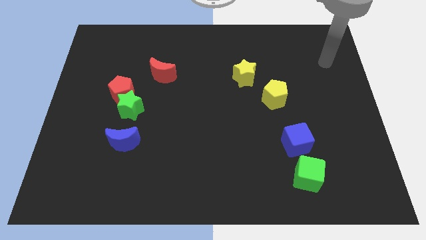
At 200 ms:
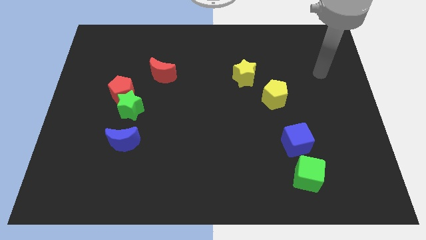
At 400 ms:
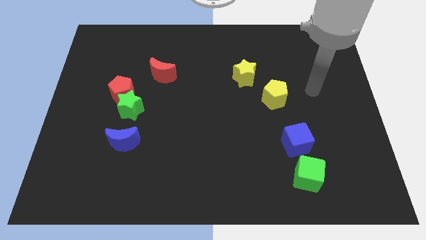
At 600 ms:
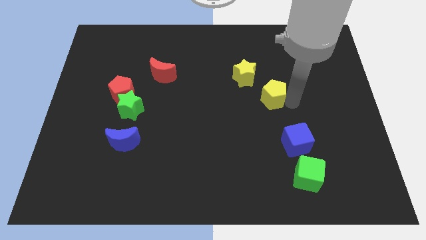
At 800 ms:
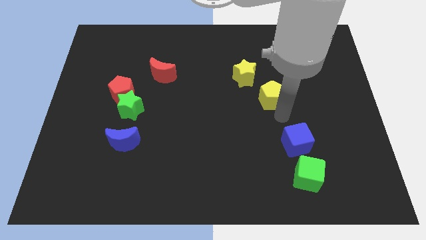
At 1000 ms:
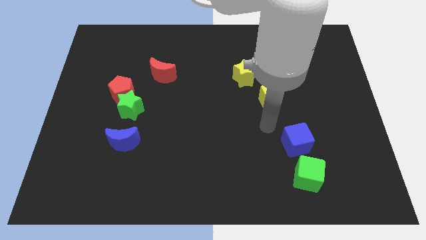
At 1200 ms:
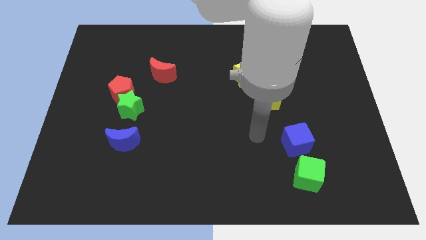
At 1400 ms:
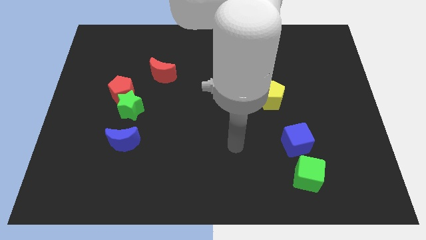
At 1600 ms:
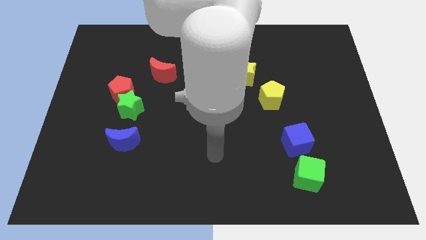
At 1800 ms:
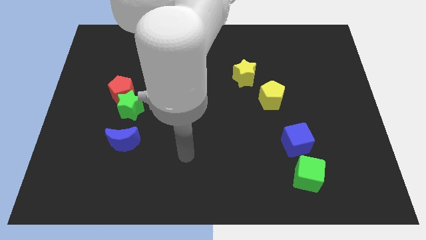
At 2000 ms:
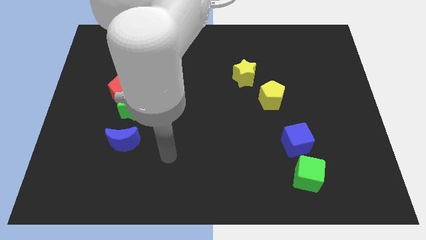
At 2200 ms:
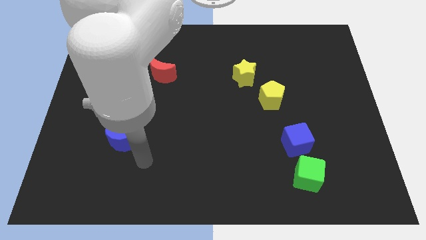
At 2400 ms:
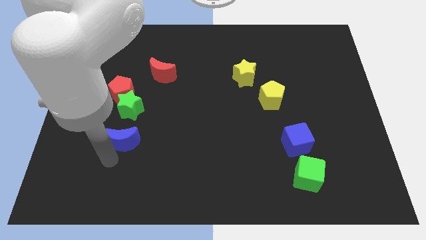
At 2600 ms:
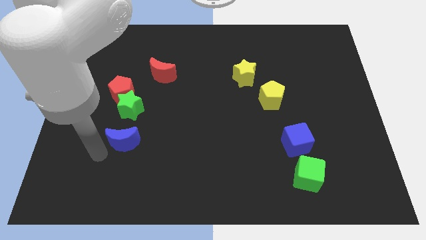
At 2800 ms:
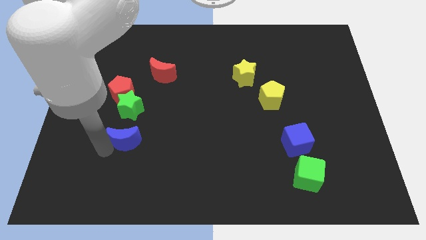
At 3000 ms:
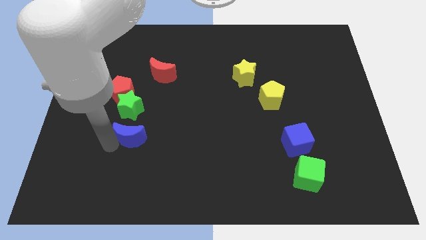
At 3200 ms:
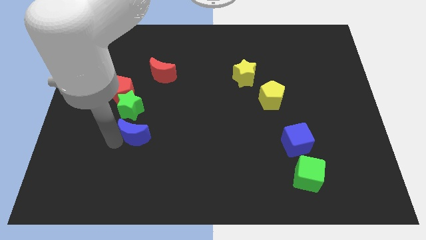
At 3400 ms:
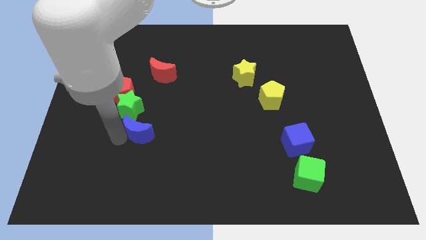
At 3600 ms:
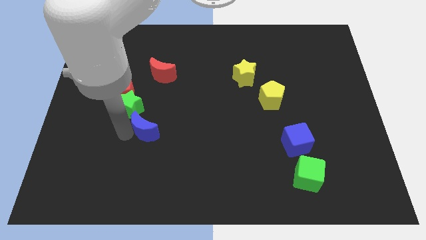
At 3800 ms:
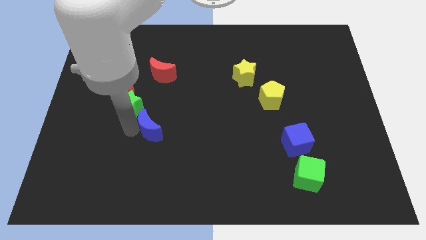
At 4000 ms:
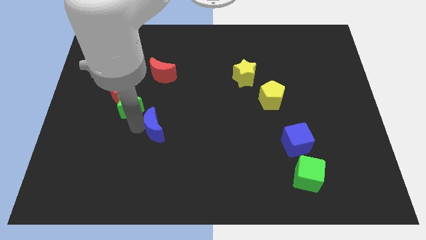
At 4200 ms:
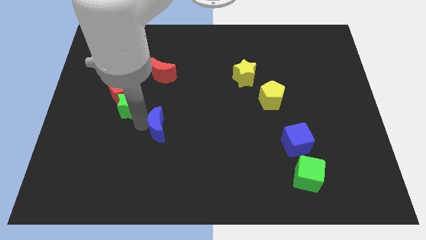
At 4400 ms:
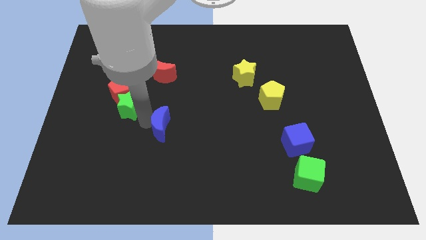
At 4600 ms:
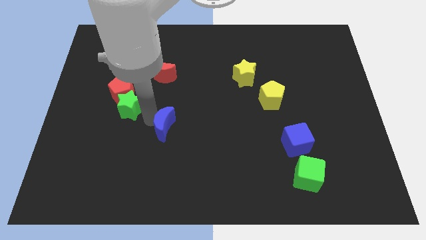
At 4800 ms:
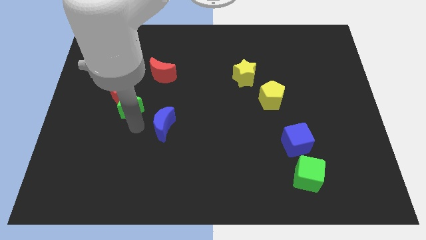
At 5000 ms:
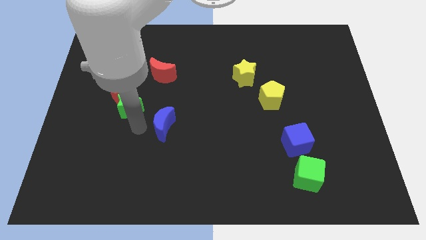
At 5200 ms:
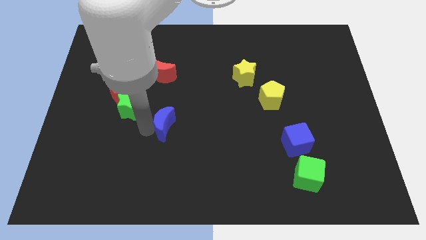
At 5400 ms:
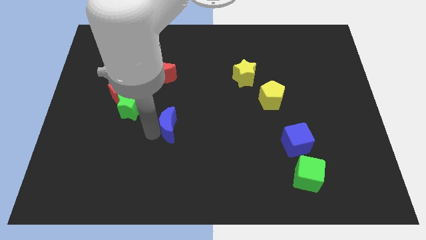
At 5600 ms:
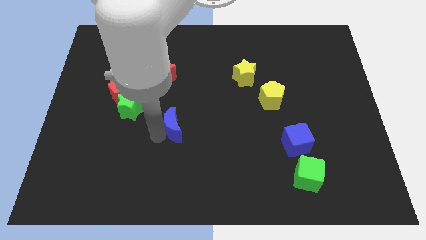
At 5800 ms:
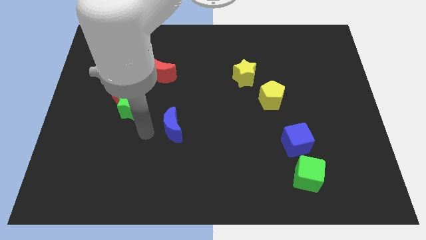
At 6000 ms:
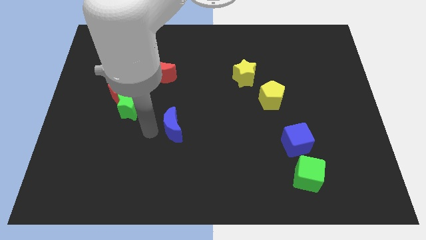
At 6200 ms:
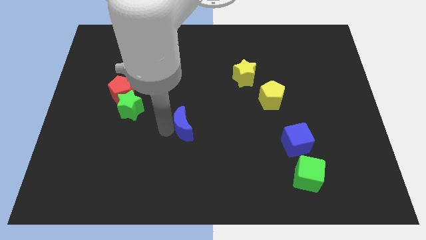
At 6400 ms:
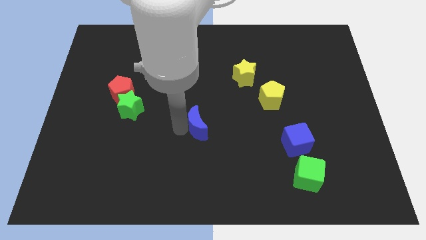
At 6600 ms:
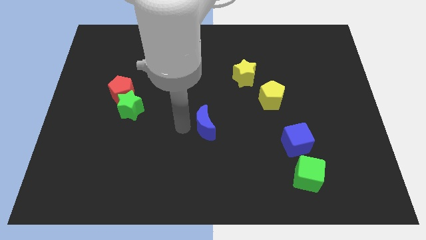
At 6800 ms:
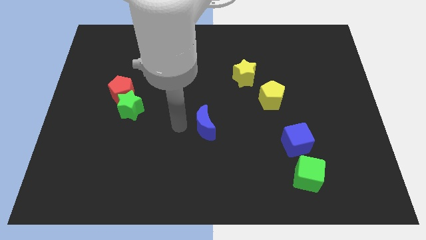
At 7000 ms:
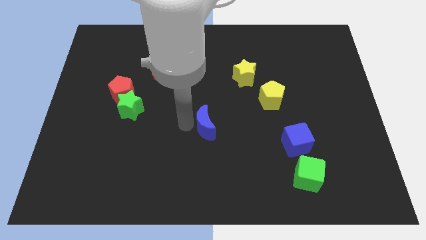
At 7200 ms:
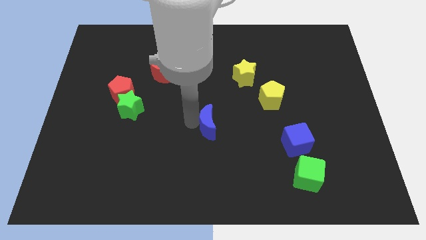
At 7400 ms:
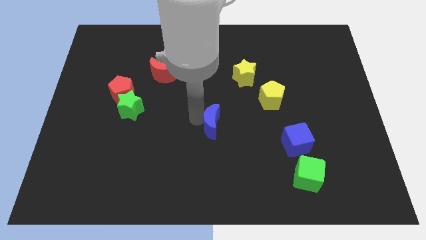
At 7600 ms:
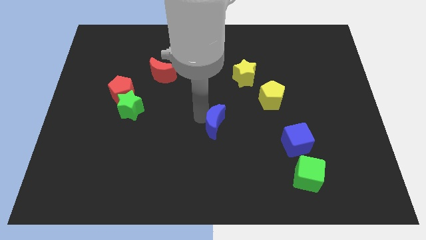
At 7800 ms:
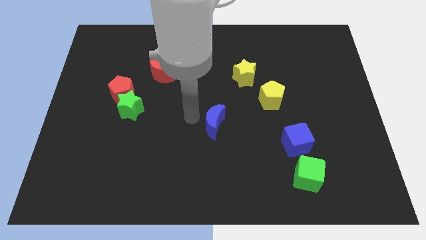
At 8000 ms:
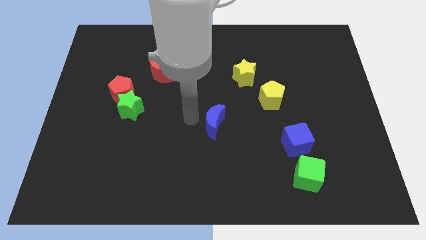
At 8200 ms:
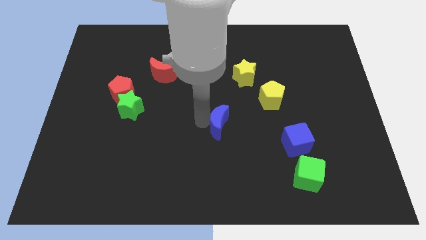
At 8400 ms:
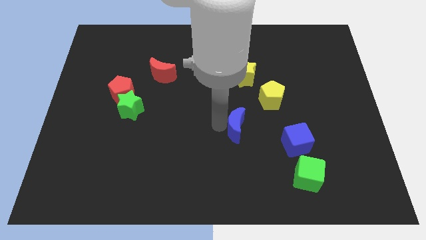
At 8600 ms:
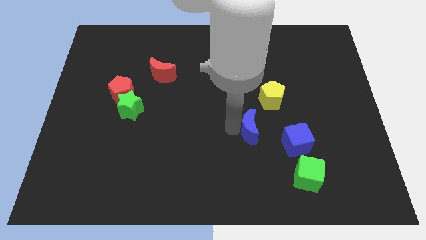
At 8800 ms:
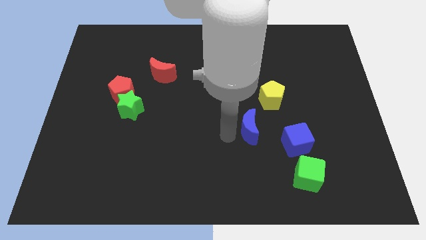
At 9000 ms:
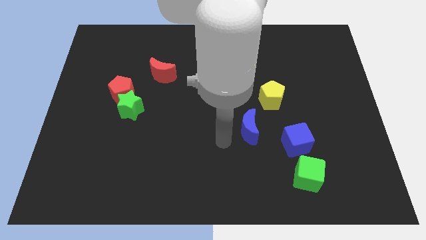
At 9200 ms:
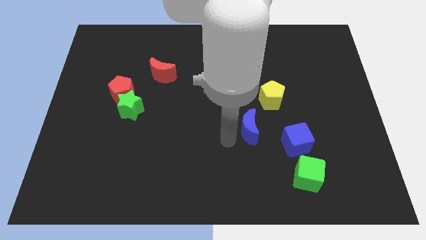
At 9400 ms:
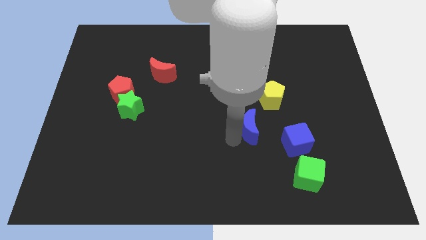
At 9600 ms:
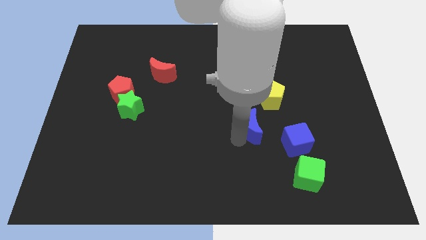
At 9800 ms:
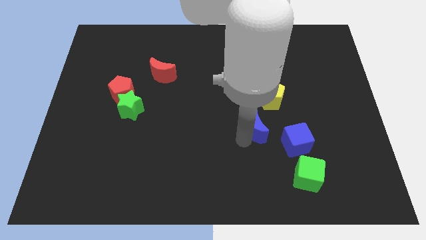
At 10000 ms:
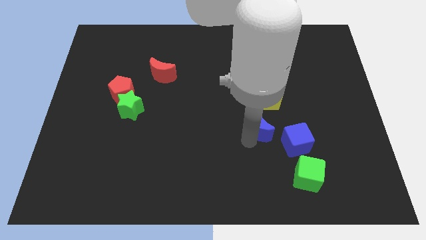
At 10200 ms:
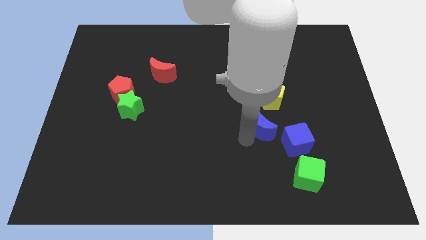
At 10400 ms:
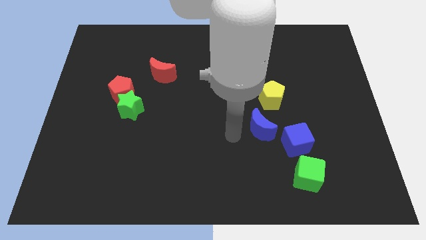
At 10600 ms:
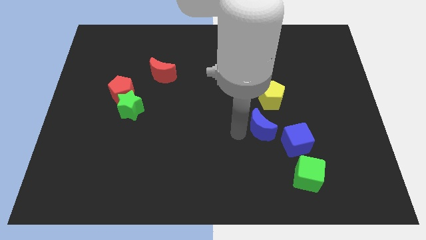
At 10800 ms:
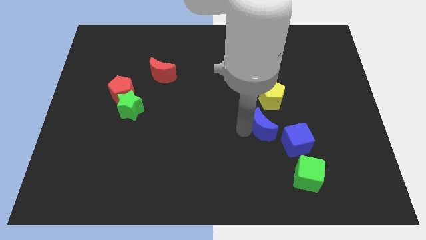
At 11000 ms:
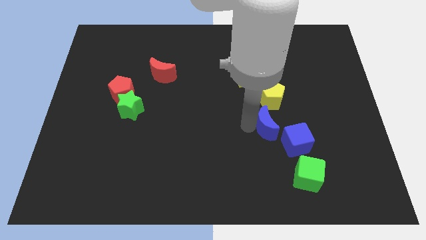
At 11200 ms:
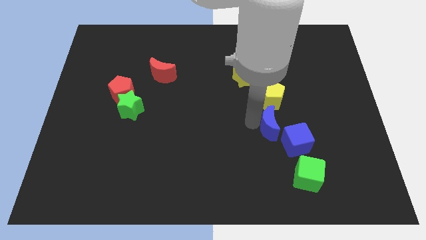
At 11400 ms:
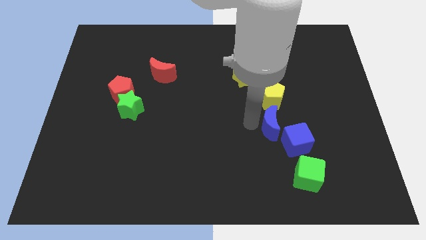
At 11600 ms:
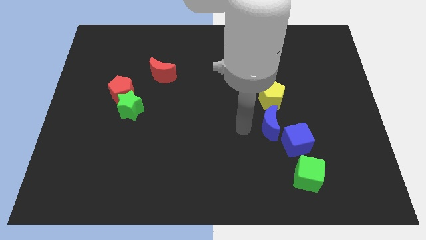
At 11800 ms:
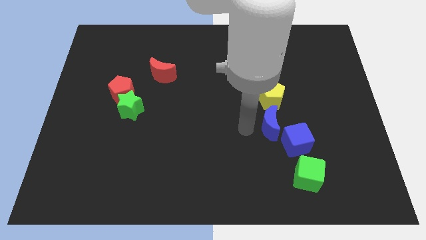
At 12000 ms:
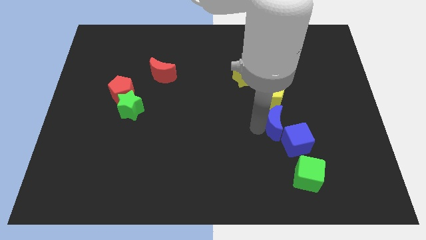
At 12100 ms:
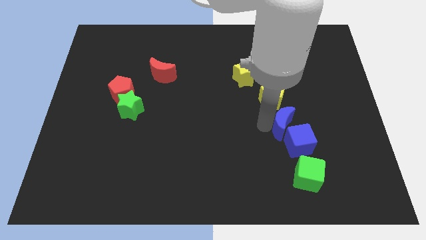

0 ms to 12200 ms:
move the blue moon above the green cube

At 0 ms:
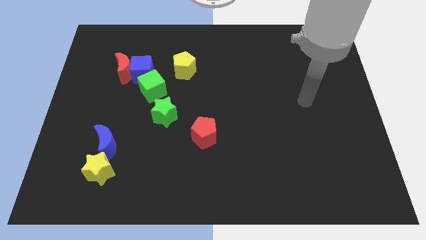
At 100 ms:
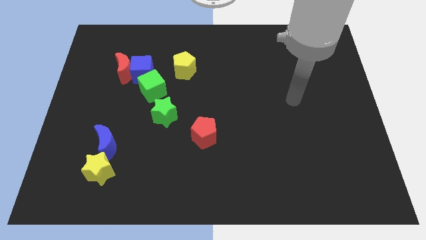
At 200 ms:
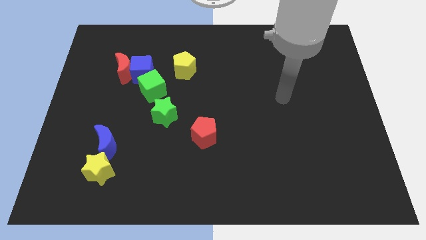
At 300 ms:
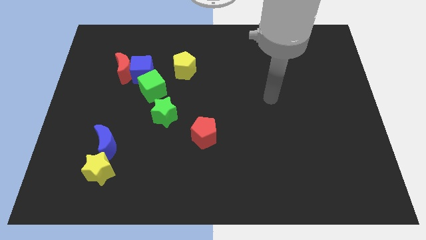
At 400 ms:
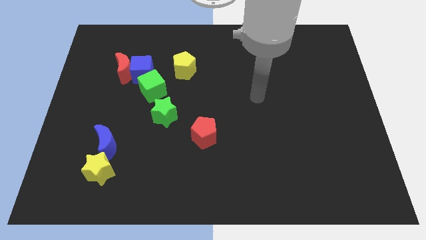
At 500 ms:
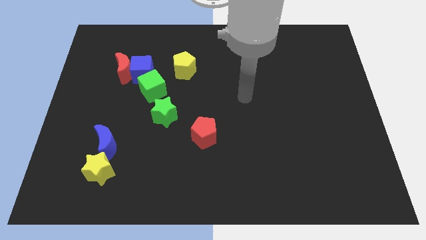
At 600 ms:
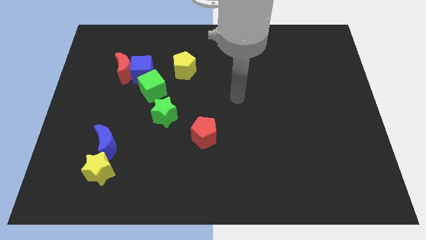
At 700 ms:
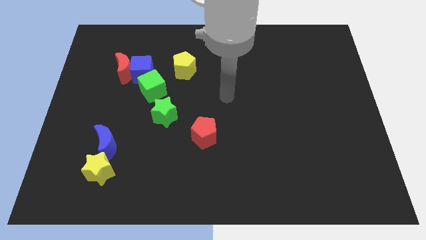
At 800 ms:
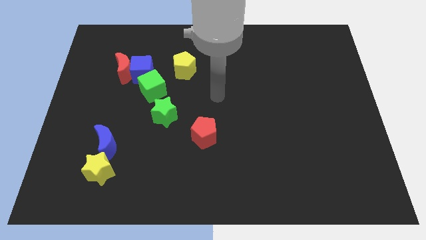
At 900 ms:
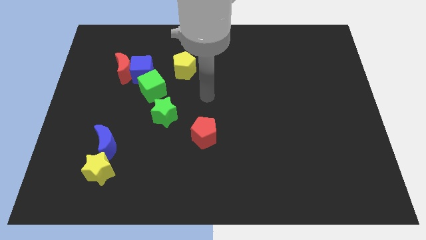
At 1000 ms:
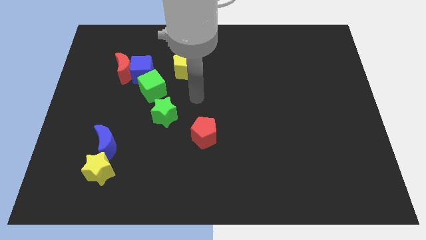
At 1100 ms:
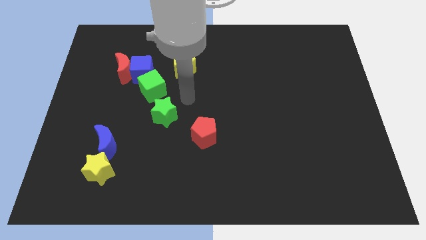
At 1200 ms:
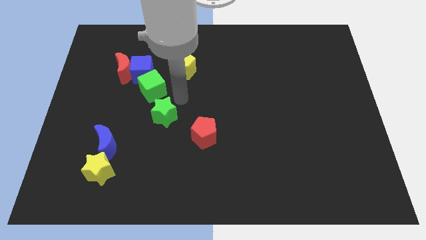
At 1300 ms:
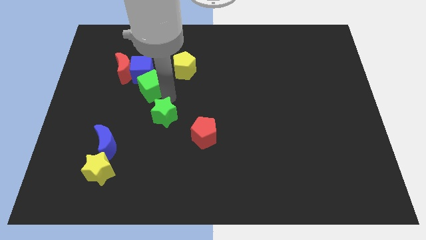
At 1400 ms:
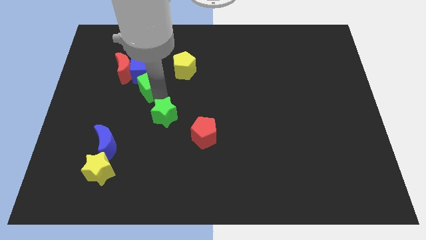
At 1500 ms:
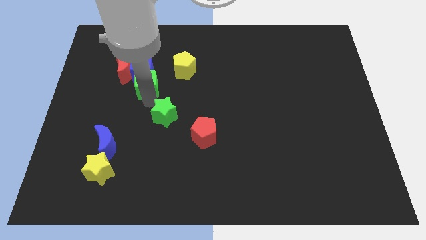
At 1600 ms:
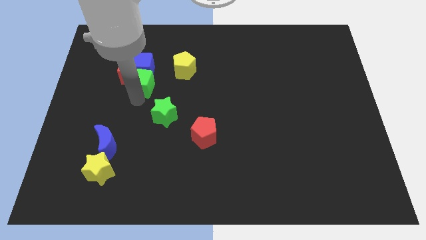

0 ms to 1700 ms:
slide the red moon to the top of the green cube
